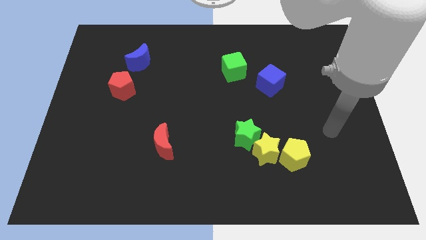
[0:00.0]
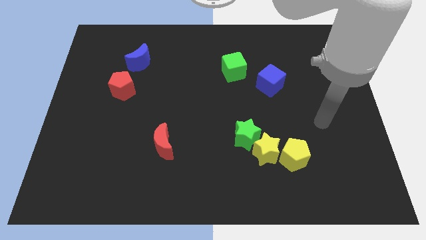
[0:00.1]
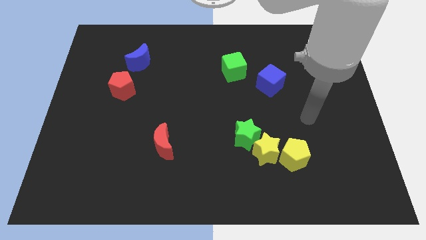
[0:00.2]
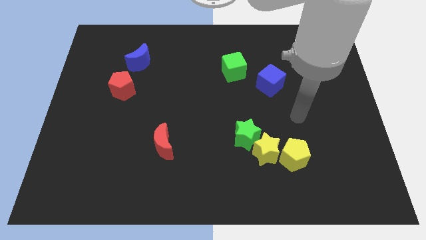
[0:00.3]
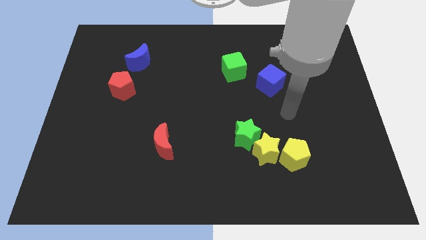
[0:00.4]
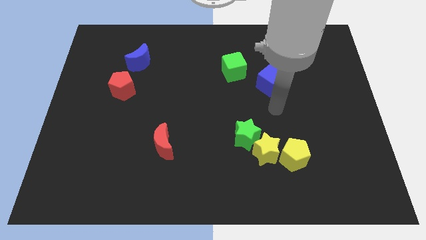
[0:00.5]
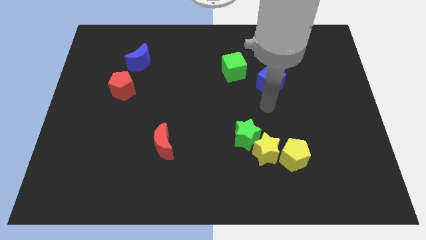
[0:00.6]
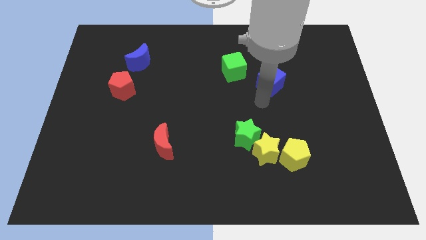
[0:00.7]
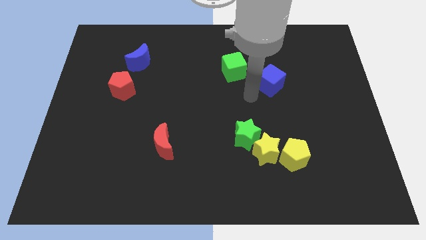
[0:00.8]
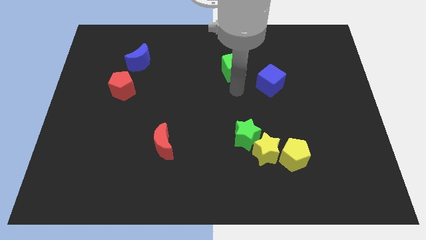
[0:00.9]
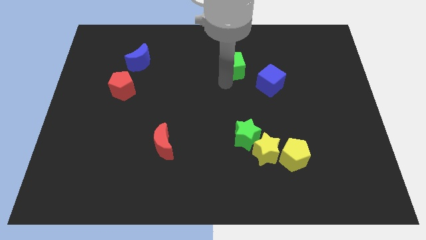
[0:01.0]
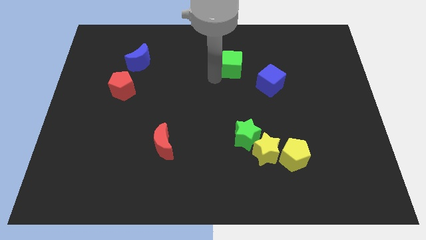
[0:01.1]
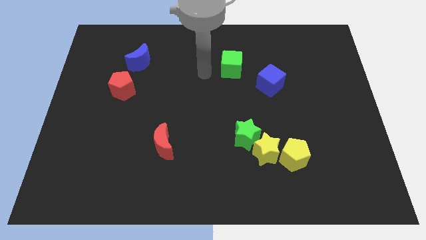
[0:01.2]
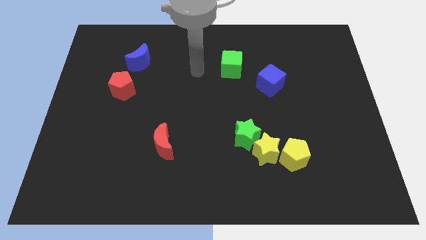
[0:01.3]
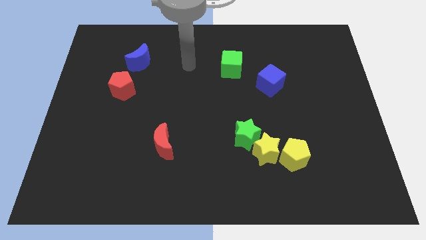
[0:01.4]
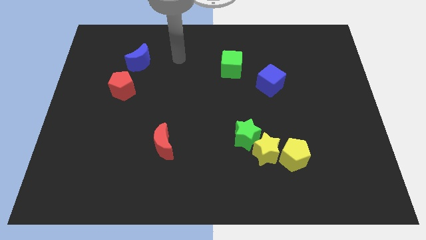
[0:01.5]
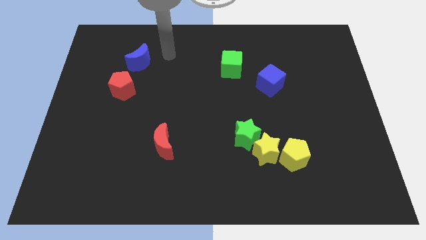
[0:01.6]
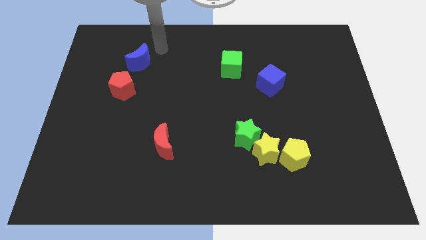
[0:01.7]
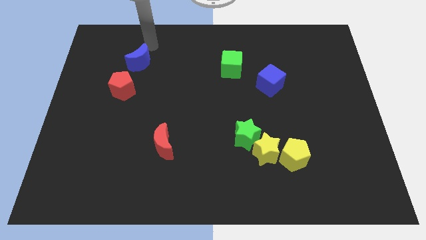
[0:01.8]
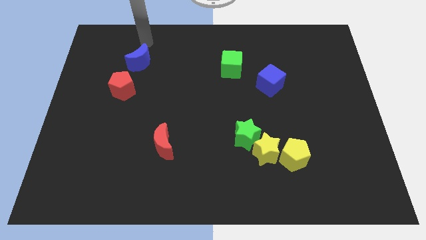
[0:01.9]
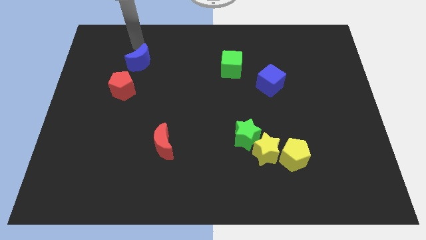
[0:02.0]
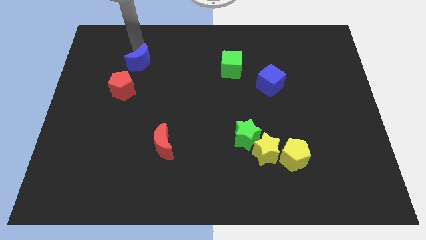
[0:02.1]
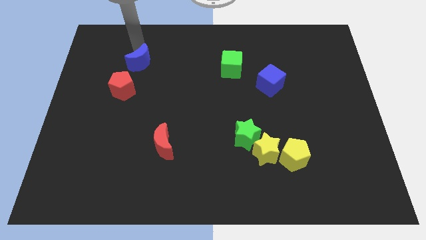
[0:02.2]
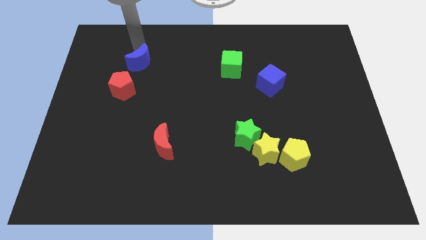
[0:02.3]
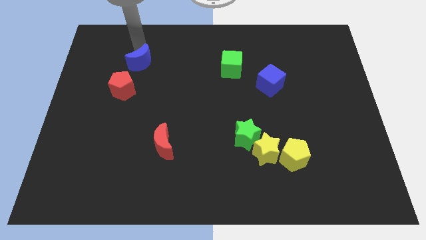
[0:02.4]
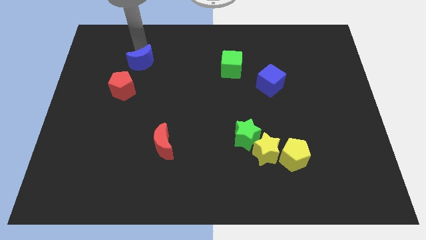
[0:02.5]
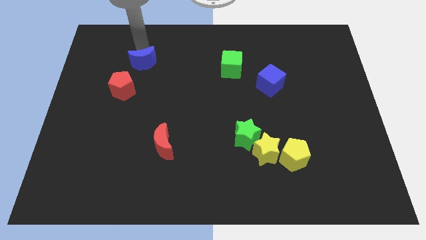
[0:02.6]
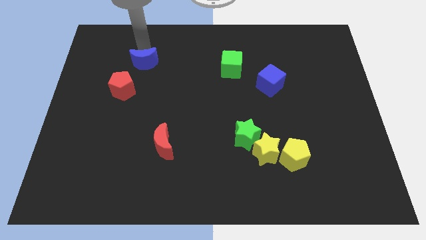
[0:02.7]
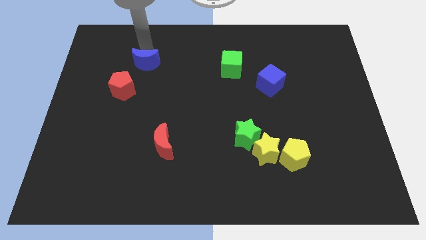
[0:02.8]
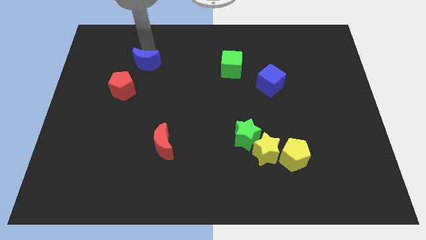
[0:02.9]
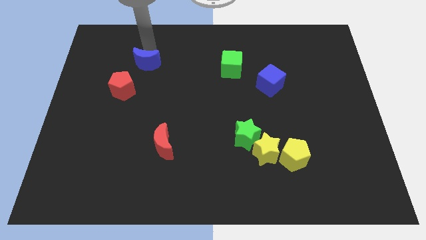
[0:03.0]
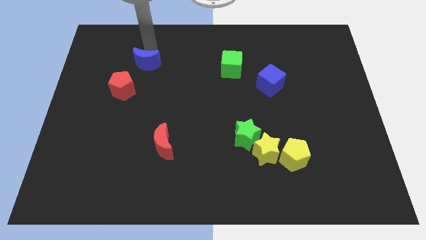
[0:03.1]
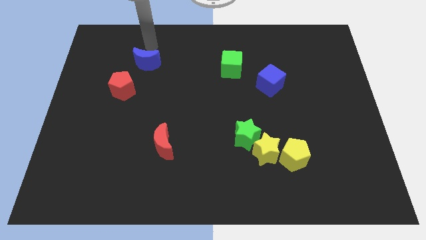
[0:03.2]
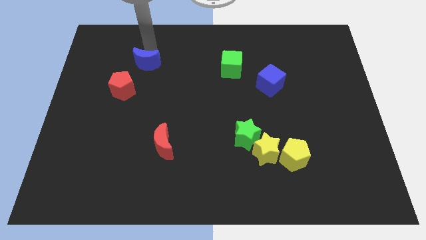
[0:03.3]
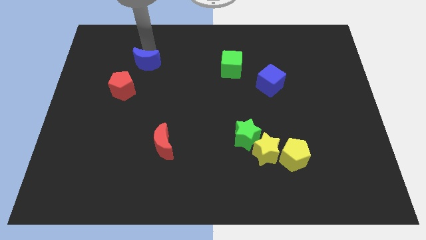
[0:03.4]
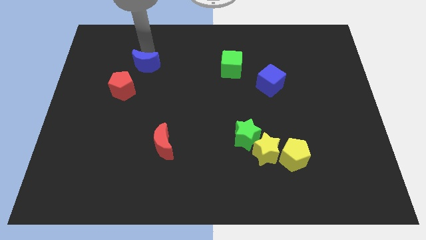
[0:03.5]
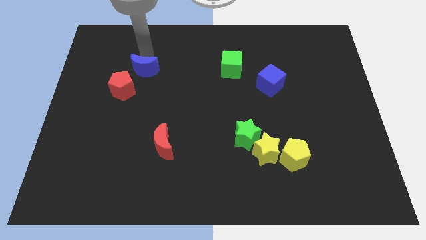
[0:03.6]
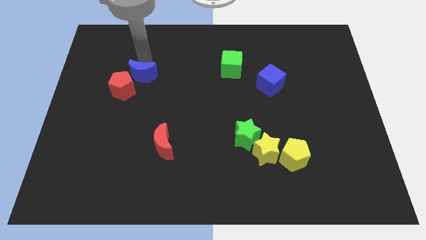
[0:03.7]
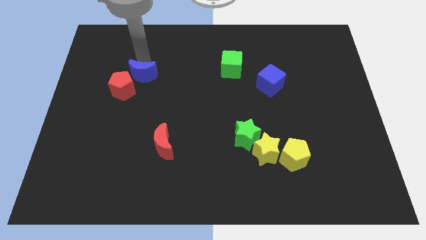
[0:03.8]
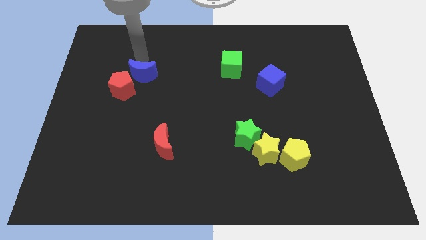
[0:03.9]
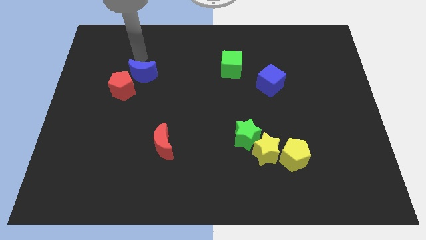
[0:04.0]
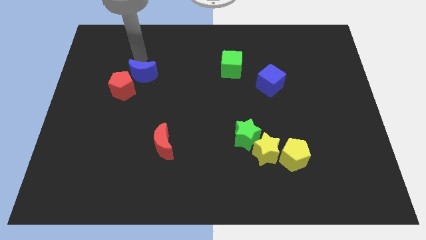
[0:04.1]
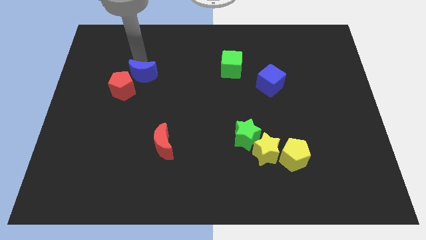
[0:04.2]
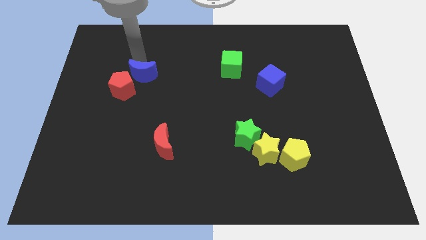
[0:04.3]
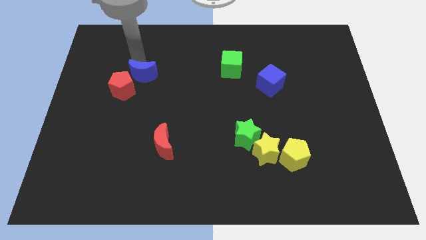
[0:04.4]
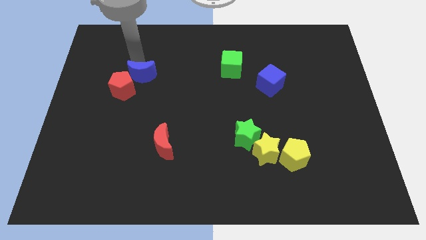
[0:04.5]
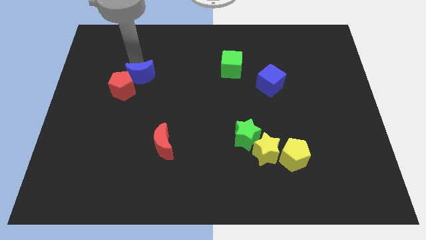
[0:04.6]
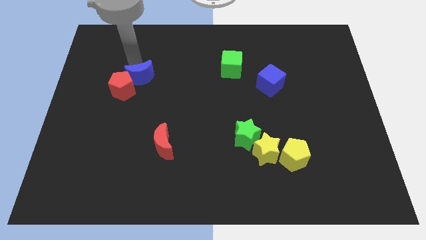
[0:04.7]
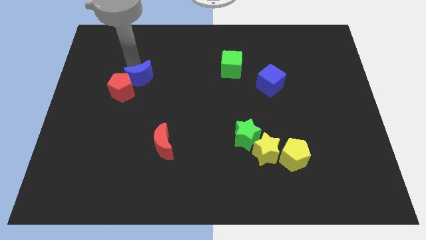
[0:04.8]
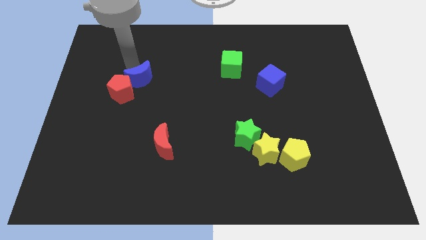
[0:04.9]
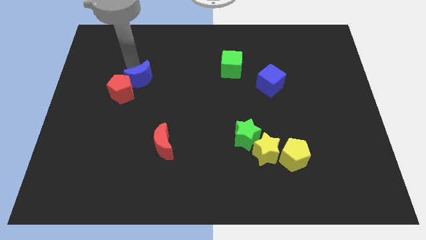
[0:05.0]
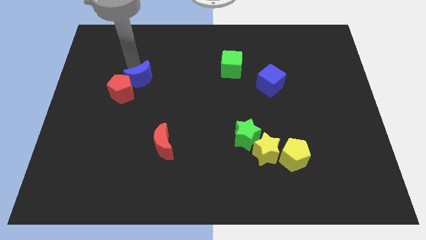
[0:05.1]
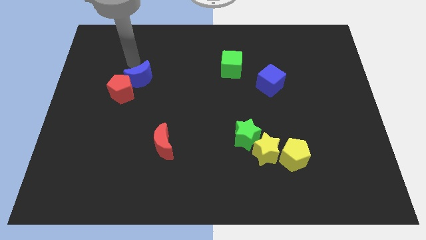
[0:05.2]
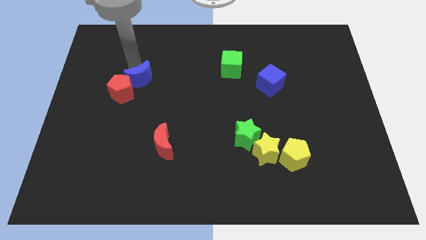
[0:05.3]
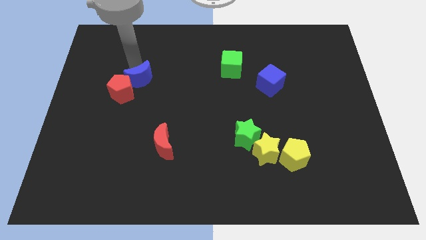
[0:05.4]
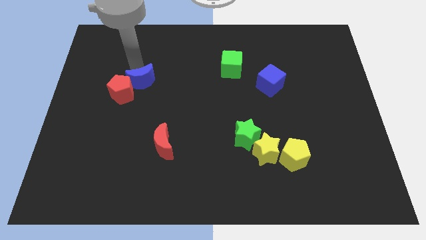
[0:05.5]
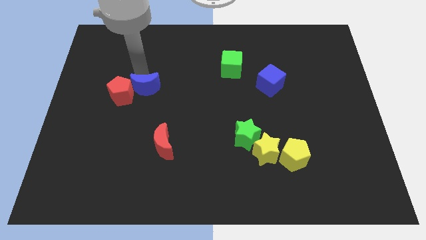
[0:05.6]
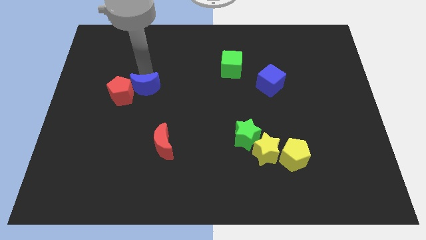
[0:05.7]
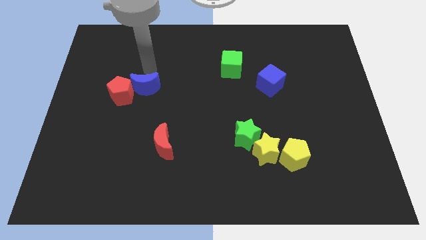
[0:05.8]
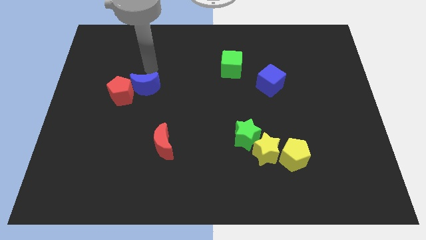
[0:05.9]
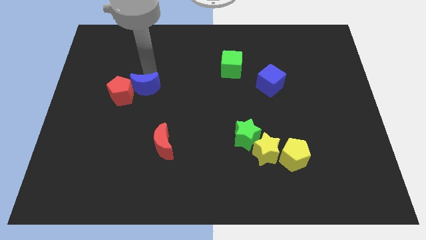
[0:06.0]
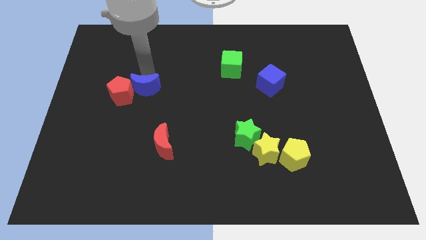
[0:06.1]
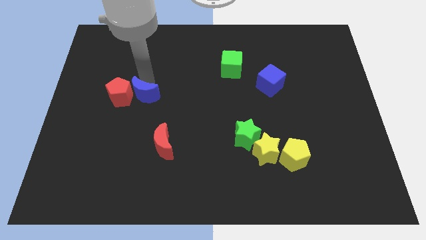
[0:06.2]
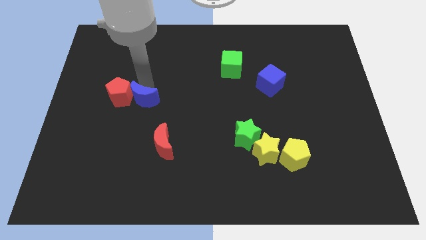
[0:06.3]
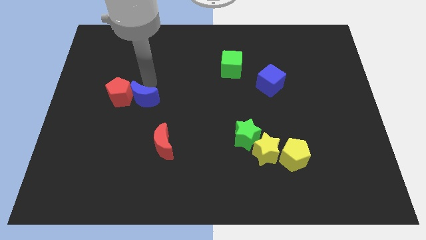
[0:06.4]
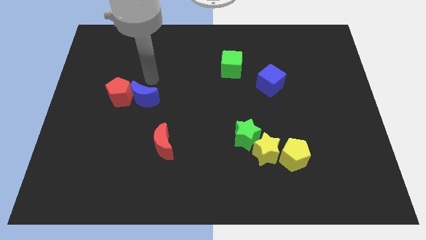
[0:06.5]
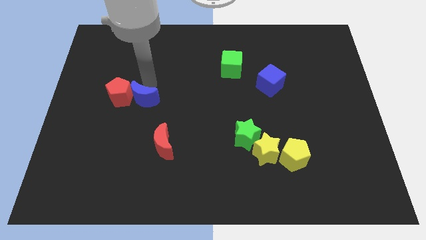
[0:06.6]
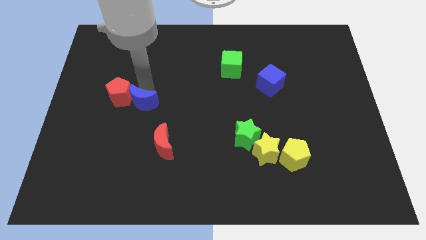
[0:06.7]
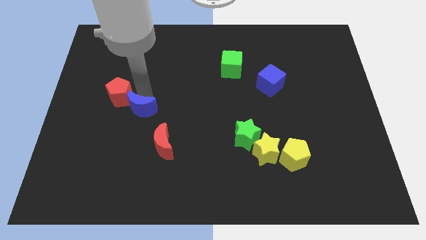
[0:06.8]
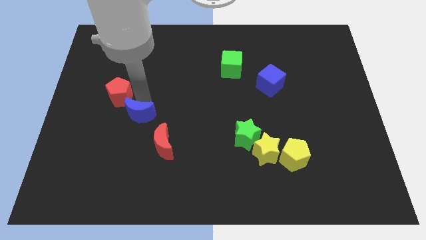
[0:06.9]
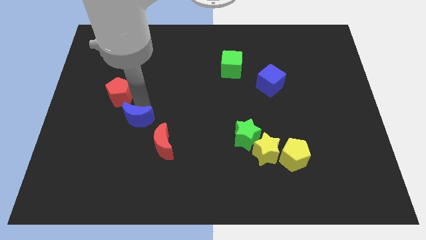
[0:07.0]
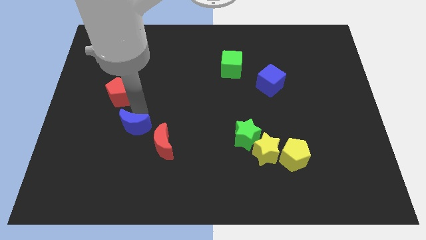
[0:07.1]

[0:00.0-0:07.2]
slide the blue moon down

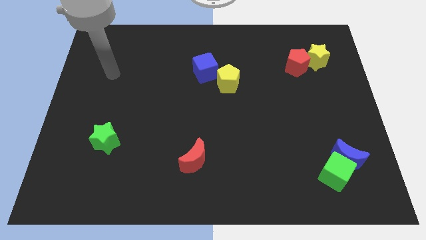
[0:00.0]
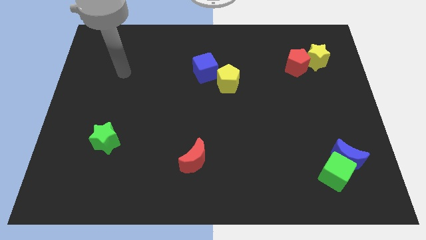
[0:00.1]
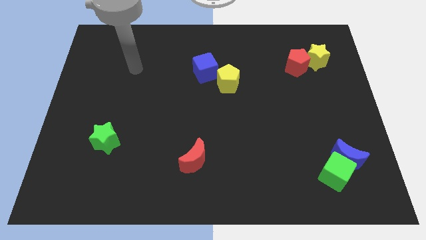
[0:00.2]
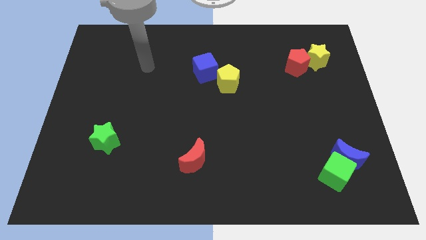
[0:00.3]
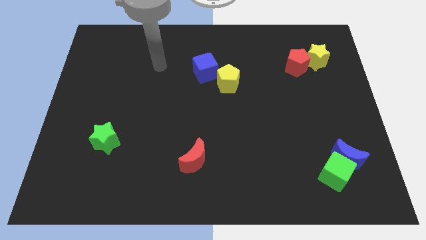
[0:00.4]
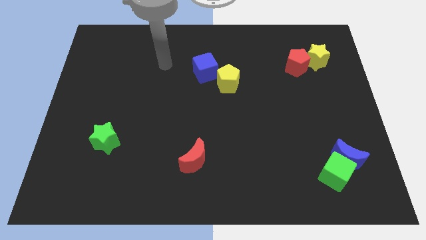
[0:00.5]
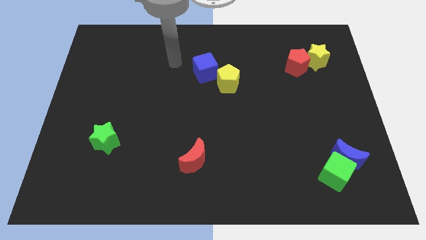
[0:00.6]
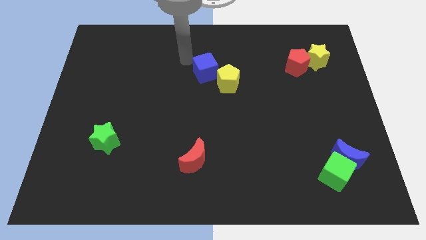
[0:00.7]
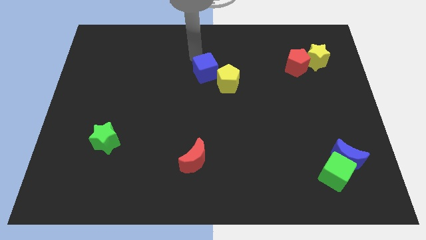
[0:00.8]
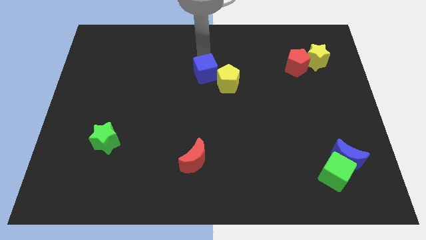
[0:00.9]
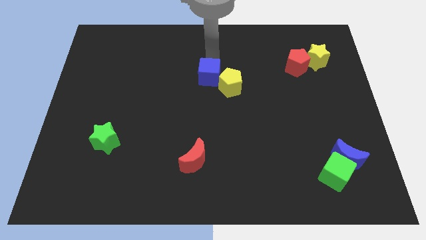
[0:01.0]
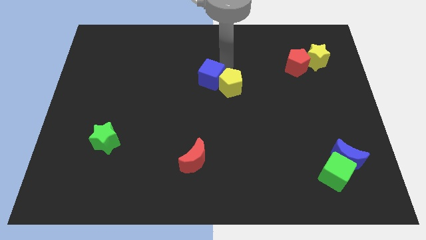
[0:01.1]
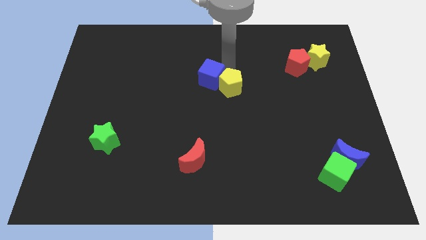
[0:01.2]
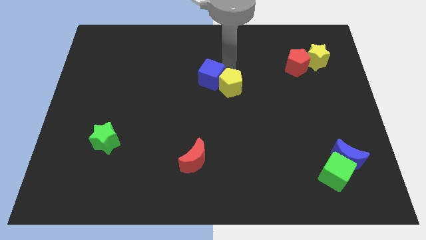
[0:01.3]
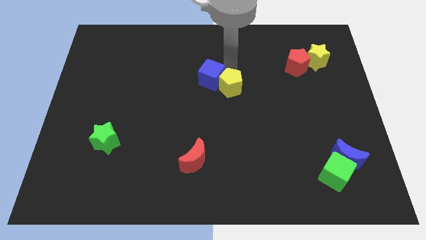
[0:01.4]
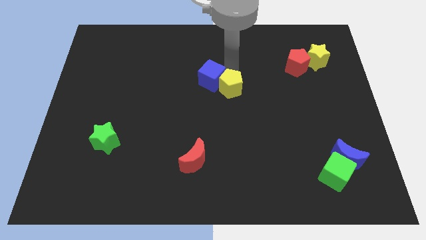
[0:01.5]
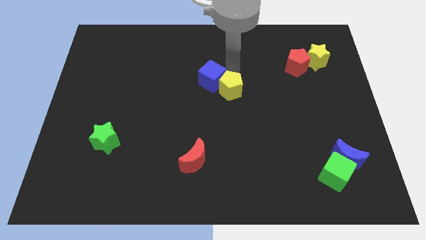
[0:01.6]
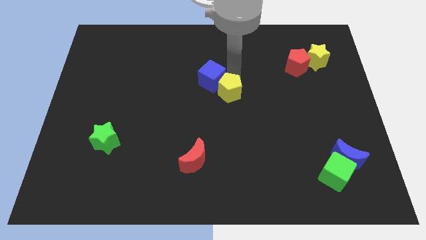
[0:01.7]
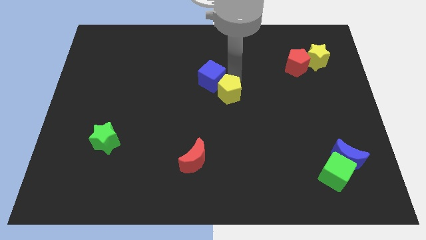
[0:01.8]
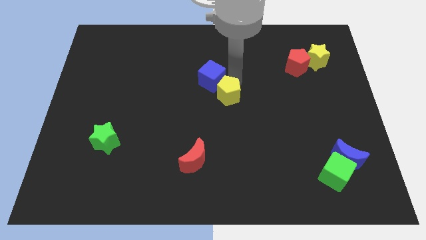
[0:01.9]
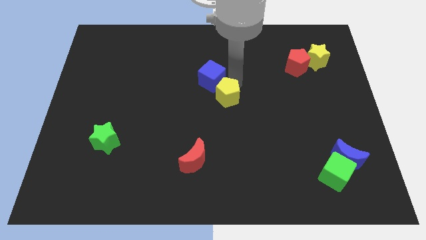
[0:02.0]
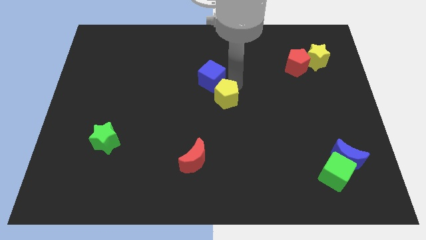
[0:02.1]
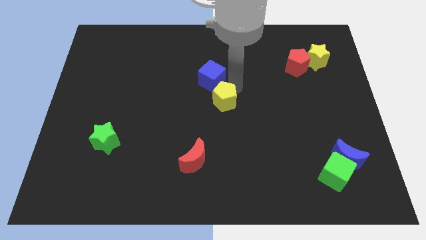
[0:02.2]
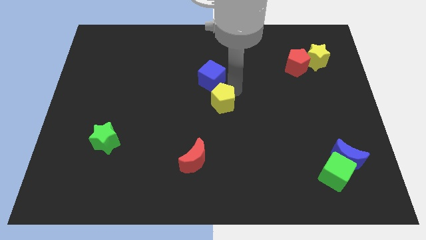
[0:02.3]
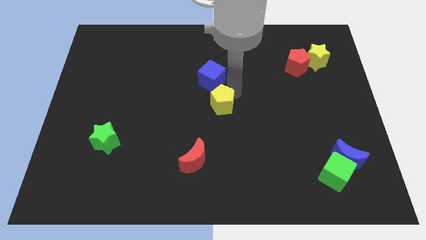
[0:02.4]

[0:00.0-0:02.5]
move the yellow pentagon downwards a little bit
